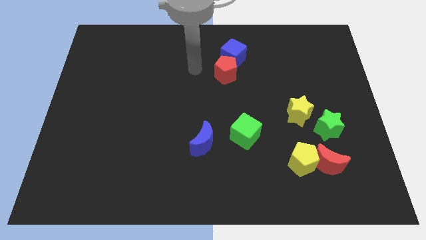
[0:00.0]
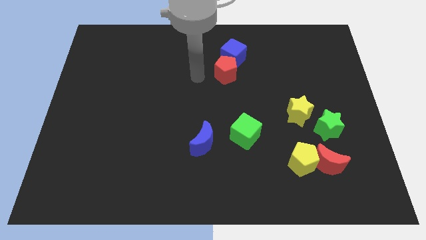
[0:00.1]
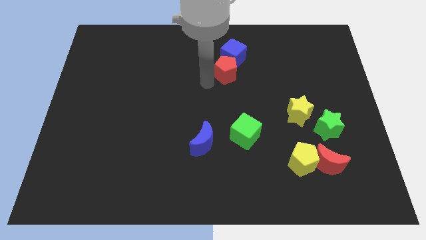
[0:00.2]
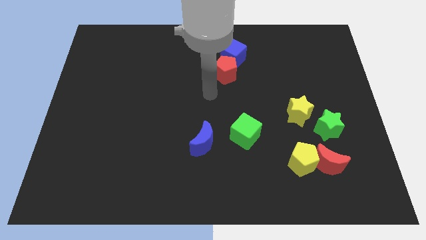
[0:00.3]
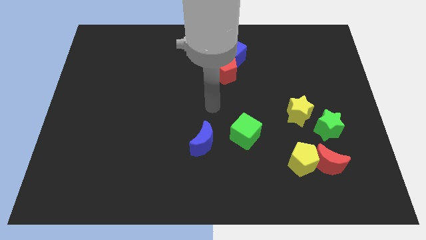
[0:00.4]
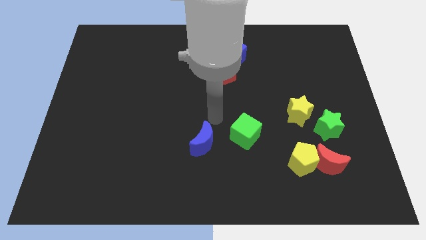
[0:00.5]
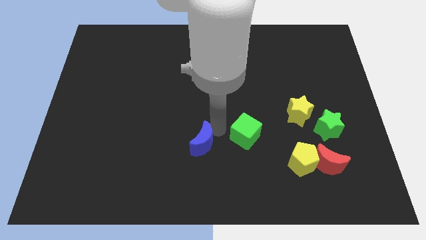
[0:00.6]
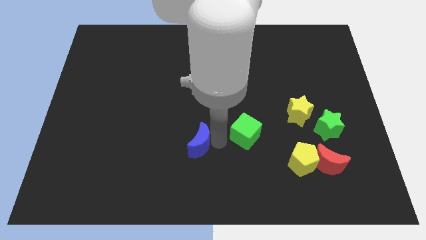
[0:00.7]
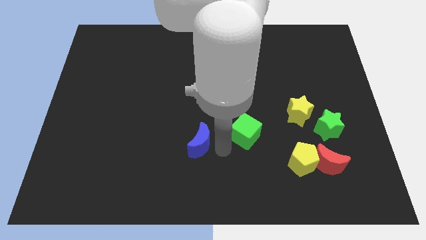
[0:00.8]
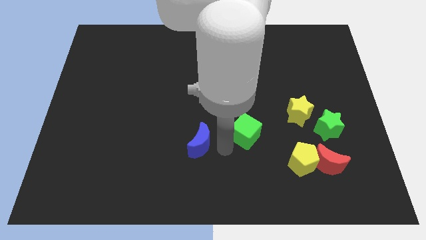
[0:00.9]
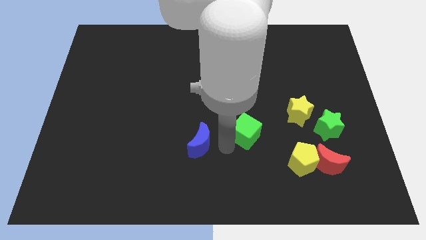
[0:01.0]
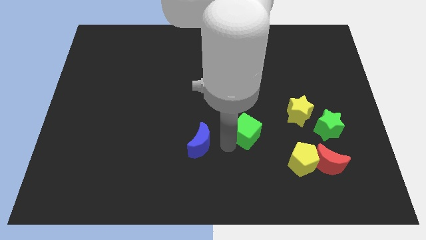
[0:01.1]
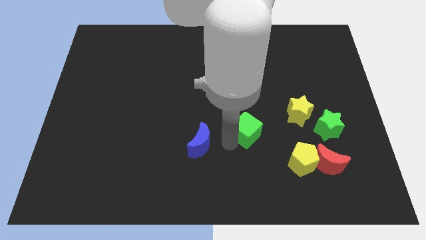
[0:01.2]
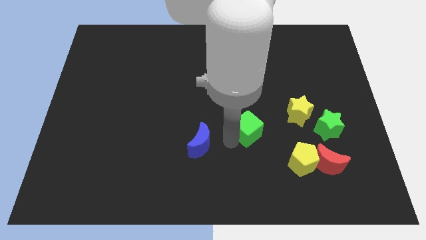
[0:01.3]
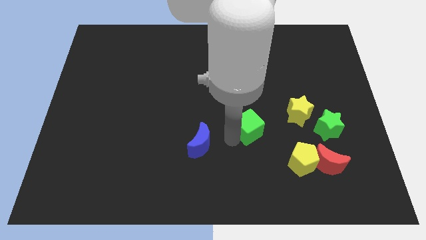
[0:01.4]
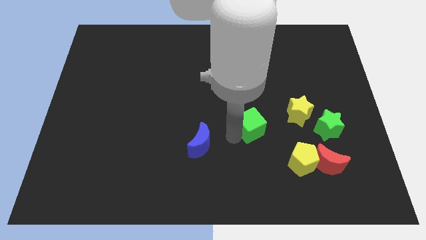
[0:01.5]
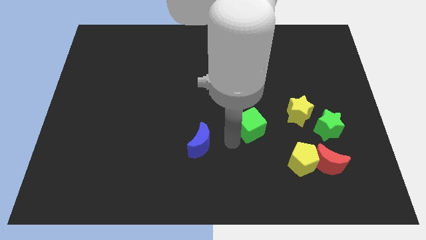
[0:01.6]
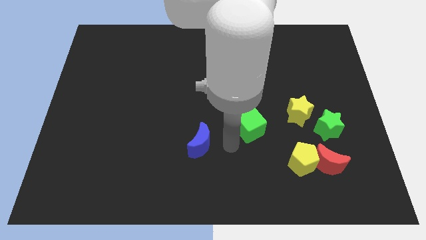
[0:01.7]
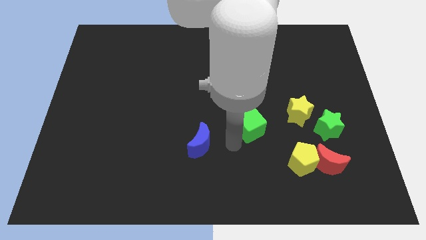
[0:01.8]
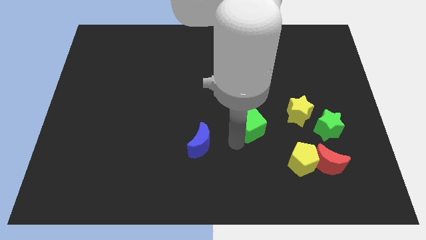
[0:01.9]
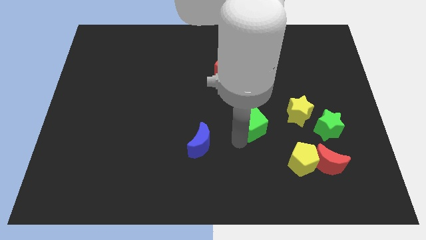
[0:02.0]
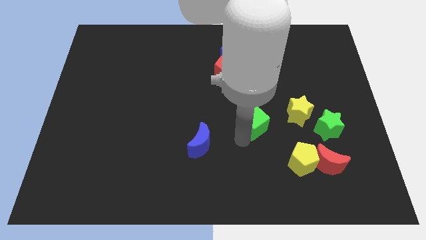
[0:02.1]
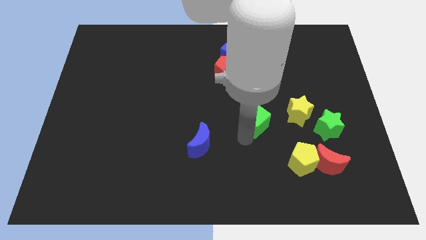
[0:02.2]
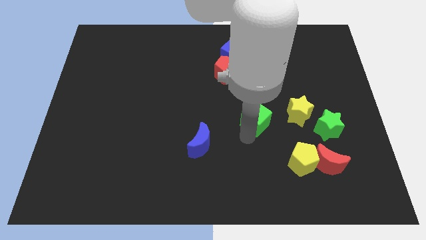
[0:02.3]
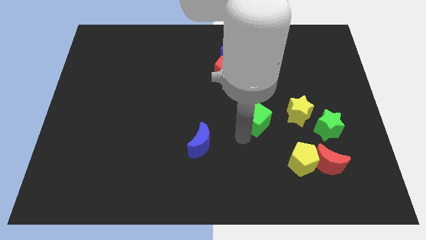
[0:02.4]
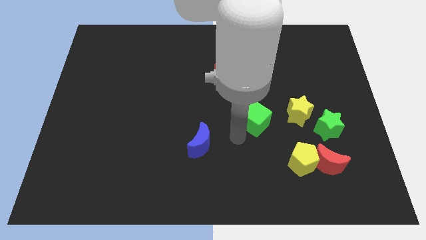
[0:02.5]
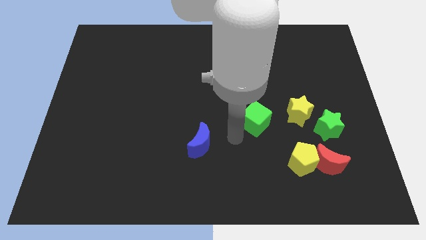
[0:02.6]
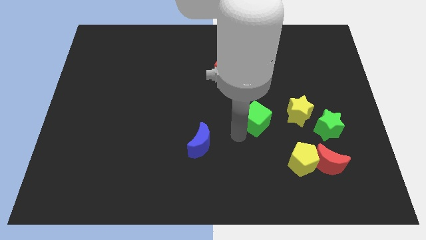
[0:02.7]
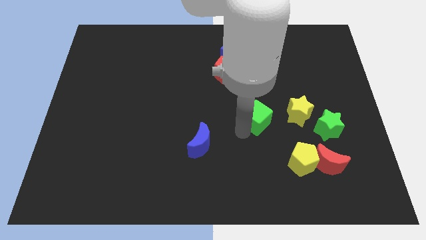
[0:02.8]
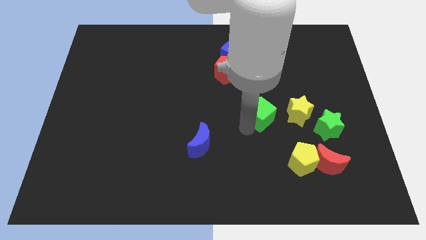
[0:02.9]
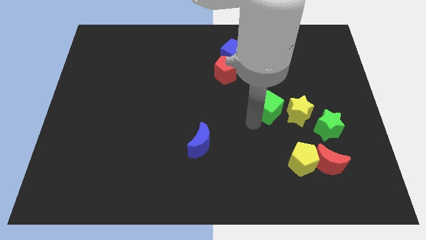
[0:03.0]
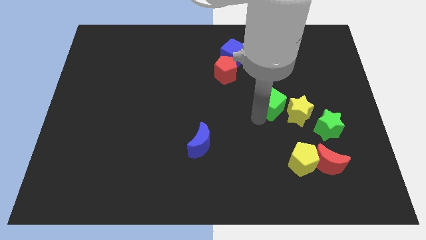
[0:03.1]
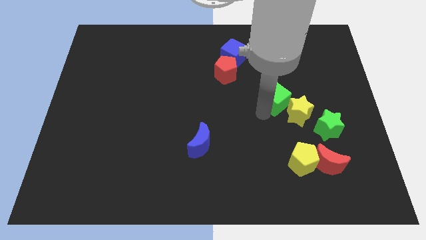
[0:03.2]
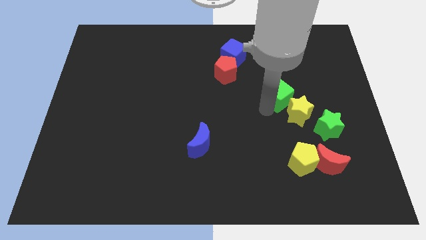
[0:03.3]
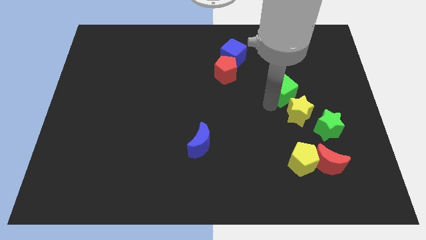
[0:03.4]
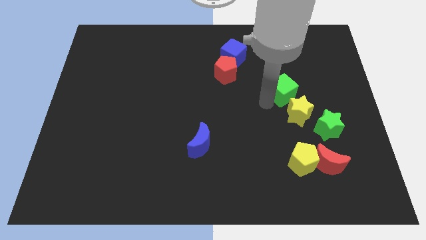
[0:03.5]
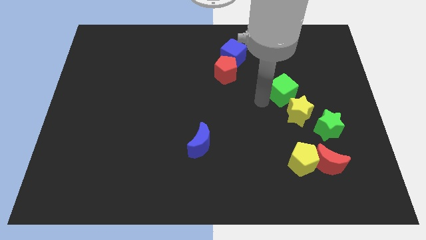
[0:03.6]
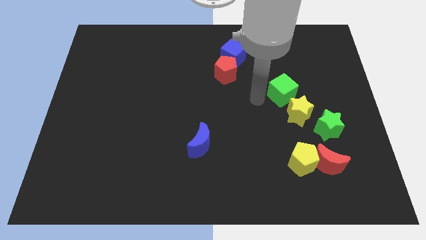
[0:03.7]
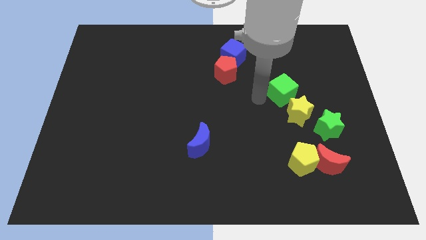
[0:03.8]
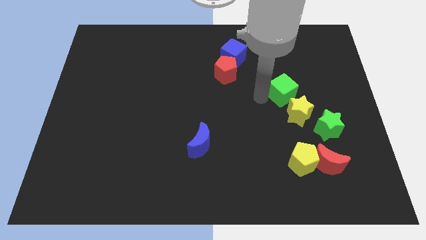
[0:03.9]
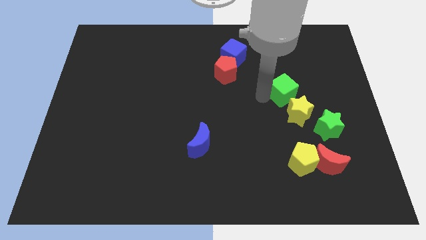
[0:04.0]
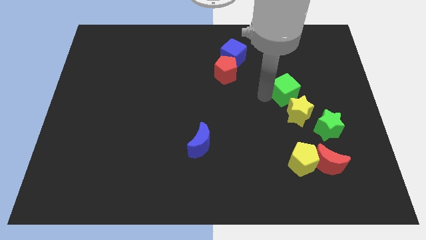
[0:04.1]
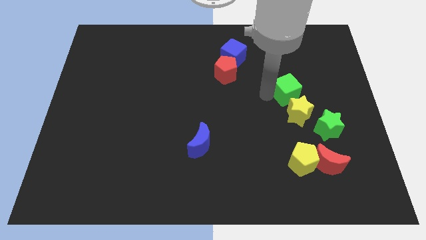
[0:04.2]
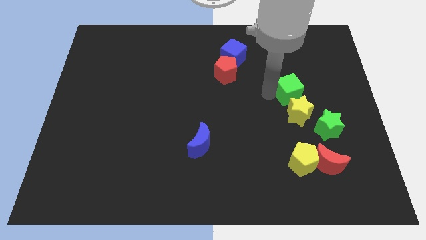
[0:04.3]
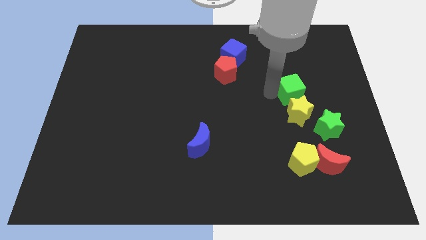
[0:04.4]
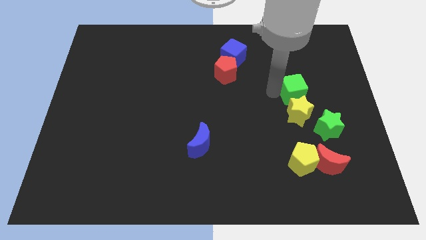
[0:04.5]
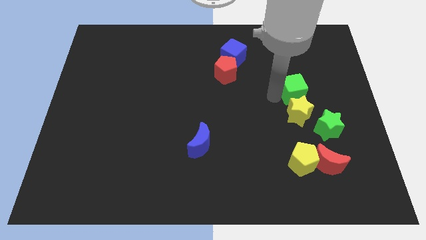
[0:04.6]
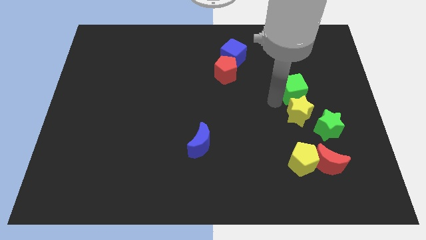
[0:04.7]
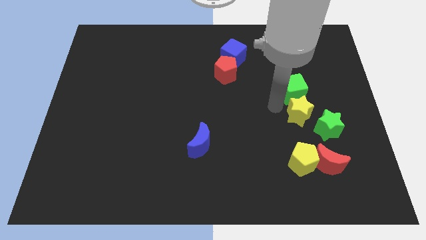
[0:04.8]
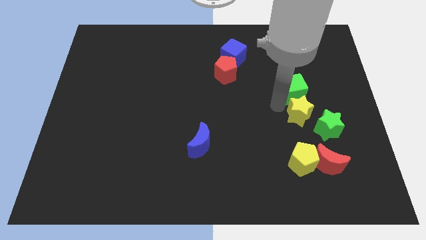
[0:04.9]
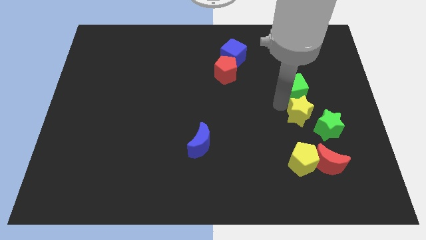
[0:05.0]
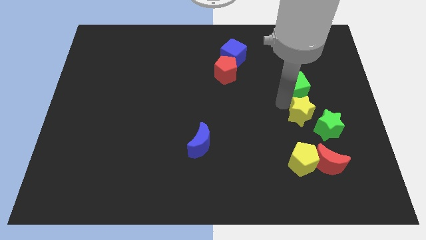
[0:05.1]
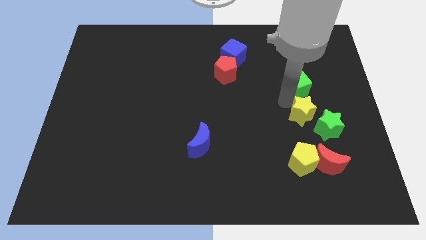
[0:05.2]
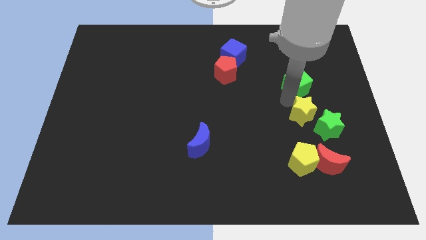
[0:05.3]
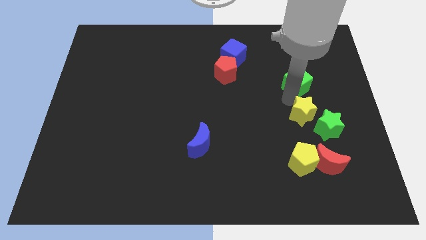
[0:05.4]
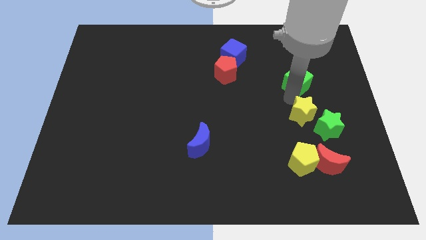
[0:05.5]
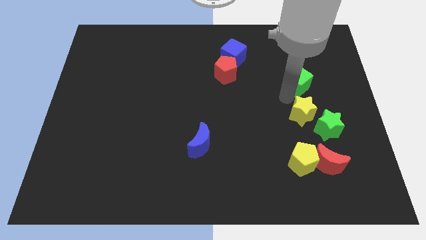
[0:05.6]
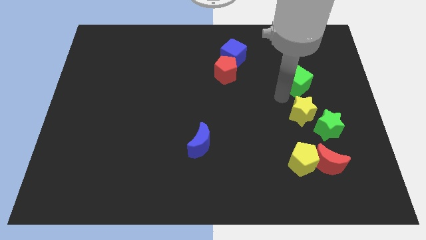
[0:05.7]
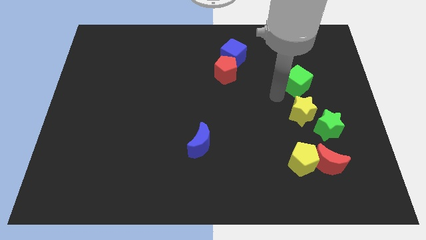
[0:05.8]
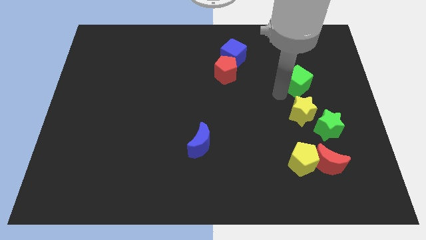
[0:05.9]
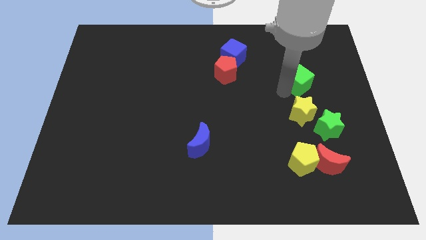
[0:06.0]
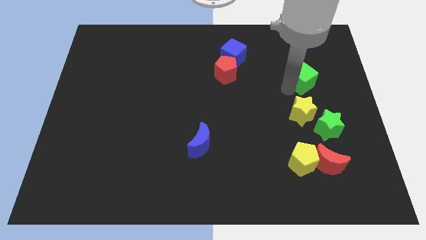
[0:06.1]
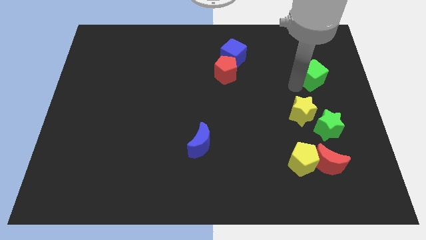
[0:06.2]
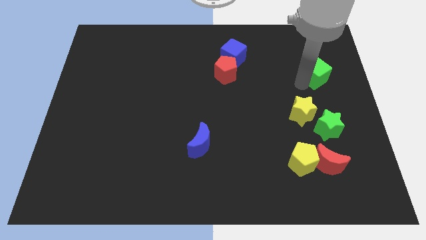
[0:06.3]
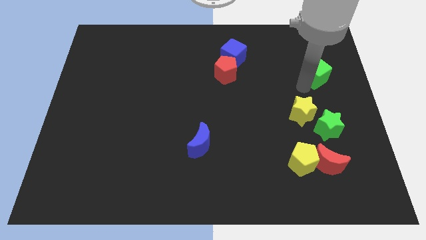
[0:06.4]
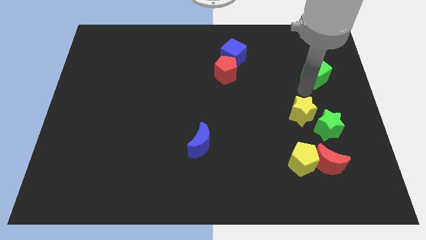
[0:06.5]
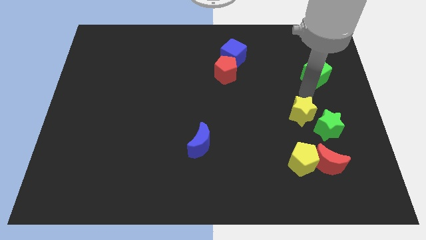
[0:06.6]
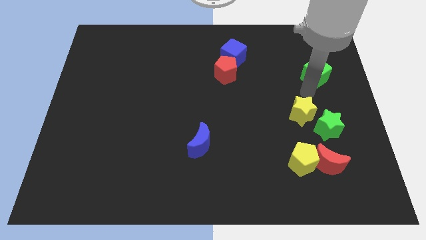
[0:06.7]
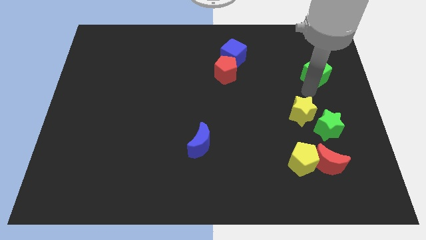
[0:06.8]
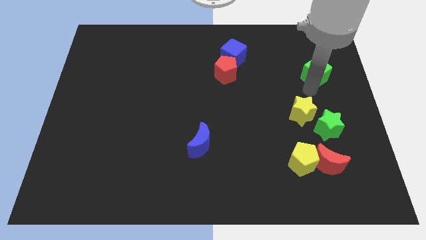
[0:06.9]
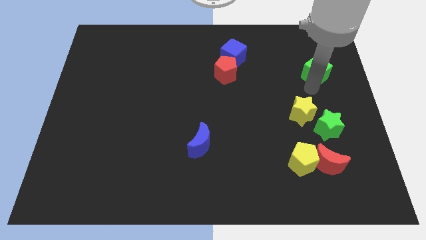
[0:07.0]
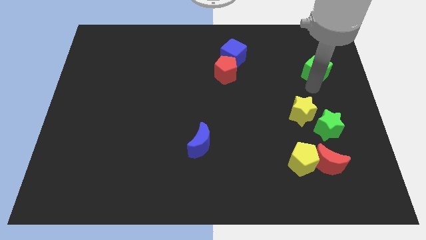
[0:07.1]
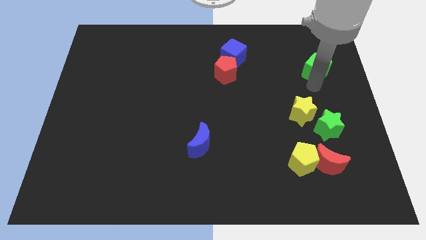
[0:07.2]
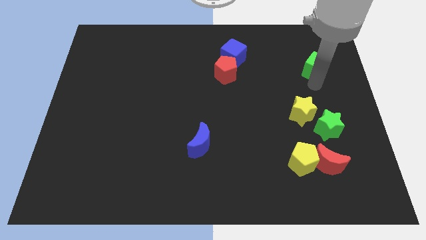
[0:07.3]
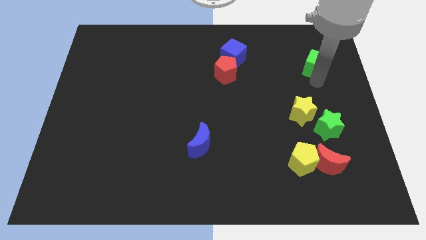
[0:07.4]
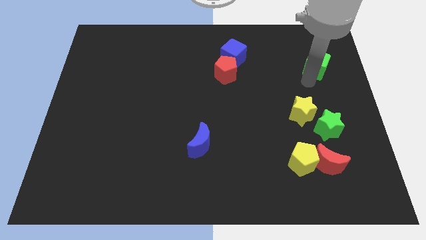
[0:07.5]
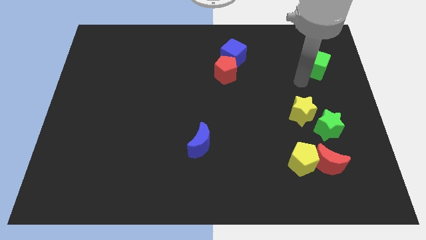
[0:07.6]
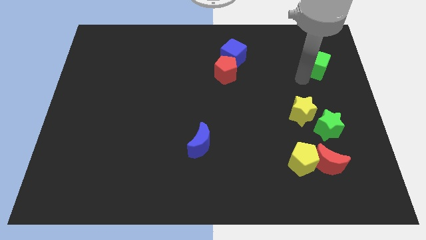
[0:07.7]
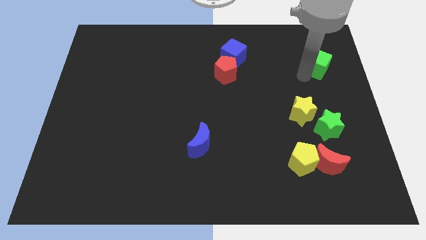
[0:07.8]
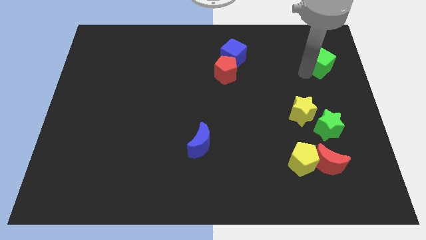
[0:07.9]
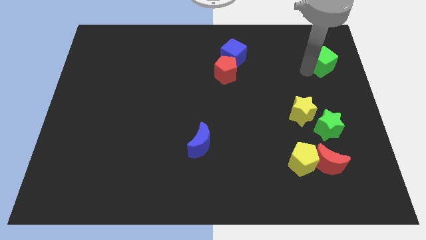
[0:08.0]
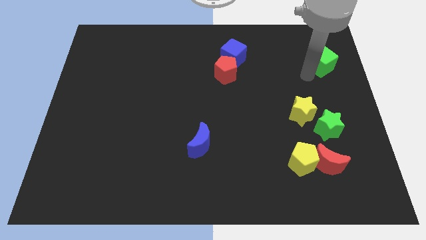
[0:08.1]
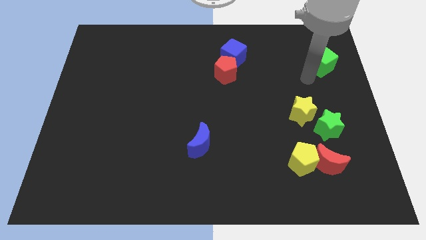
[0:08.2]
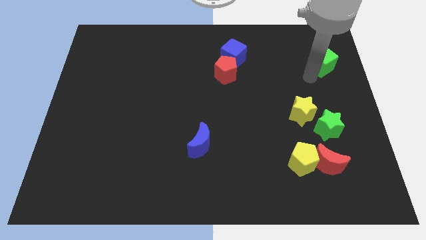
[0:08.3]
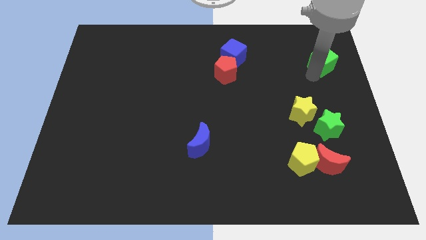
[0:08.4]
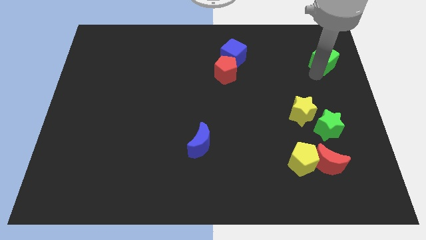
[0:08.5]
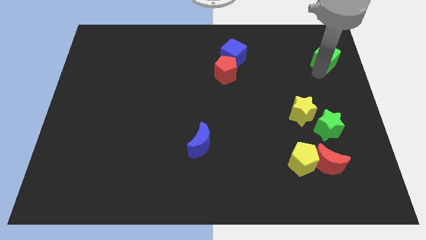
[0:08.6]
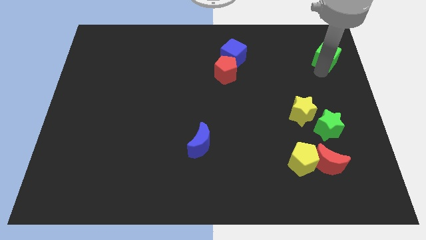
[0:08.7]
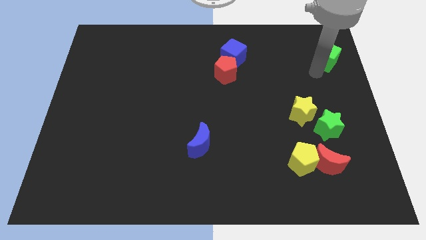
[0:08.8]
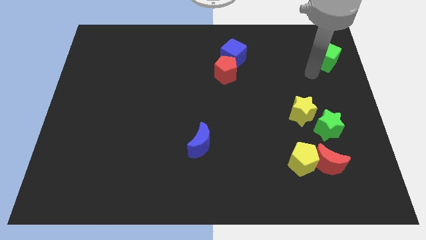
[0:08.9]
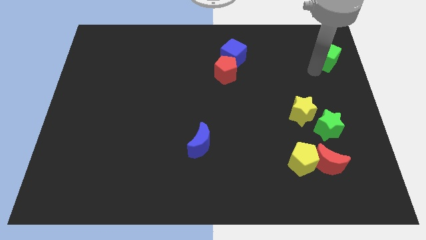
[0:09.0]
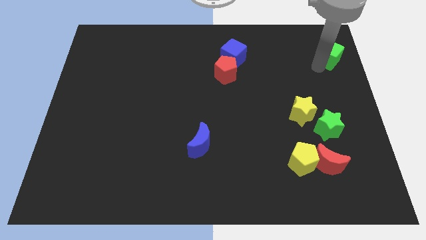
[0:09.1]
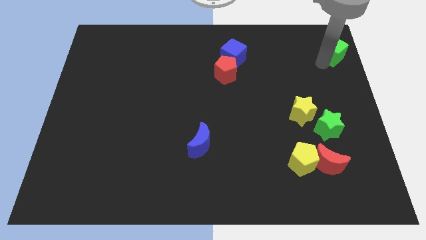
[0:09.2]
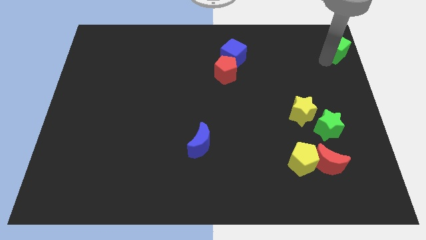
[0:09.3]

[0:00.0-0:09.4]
put the green cube to the top right
